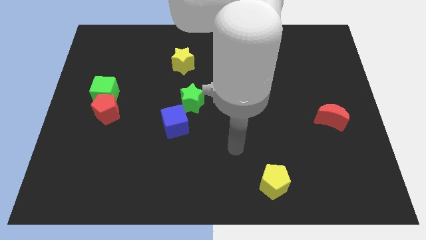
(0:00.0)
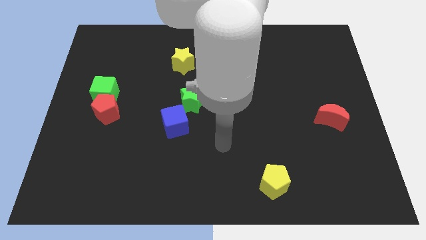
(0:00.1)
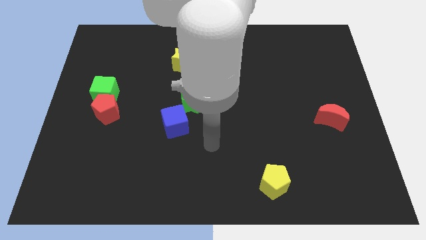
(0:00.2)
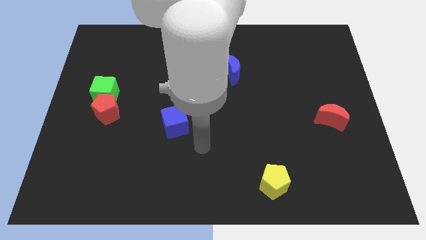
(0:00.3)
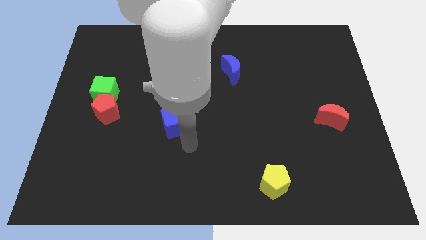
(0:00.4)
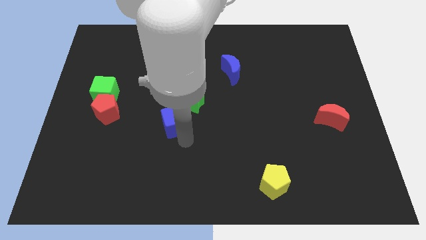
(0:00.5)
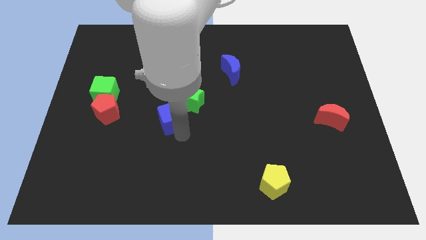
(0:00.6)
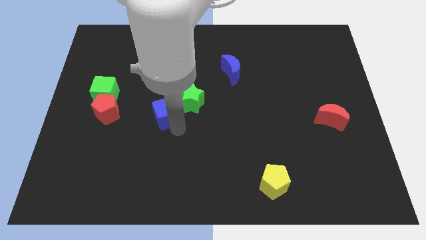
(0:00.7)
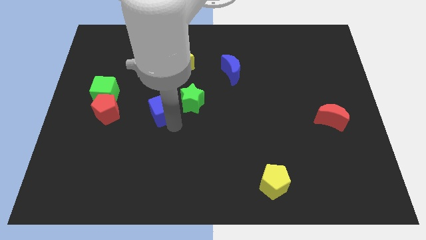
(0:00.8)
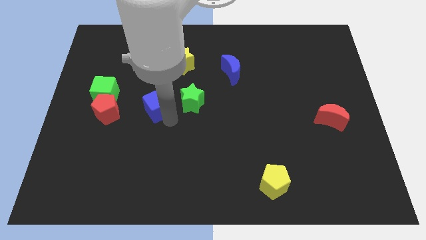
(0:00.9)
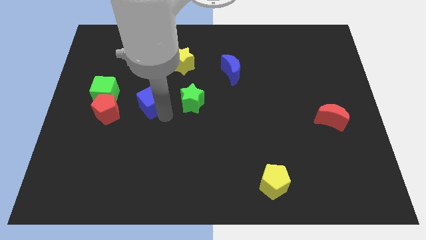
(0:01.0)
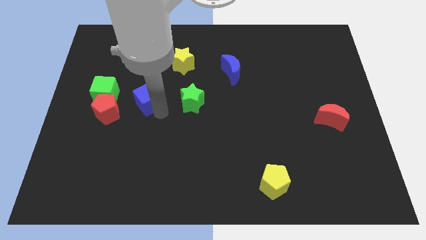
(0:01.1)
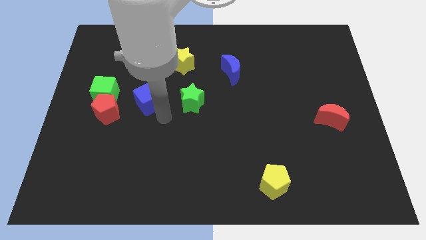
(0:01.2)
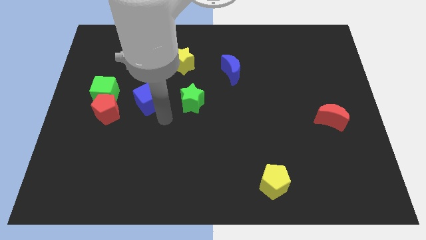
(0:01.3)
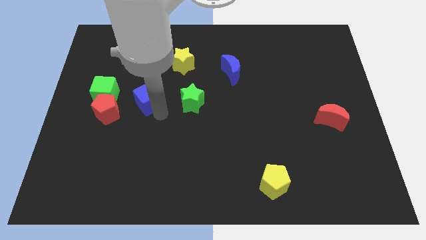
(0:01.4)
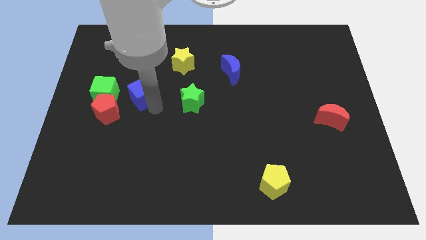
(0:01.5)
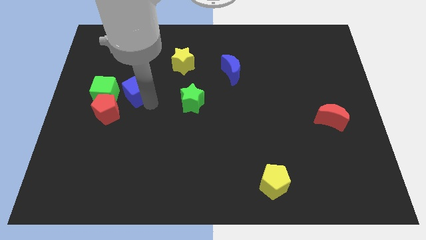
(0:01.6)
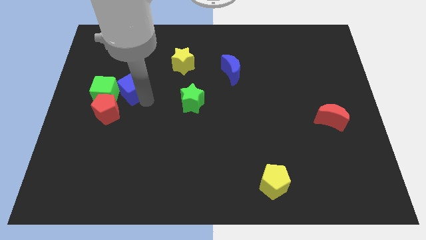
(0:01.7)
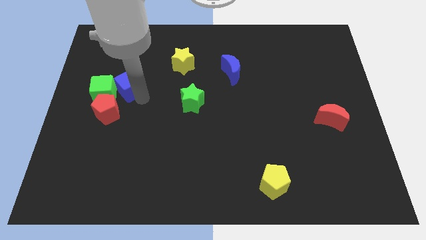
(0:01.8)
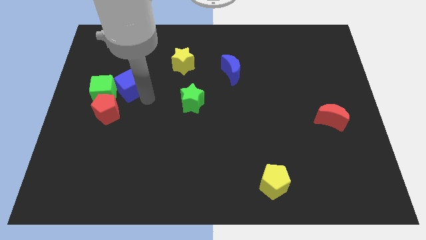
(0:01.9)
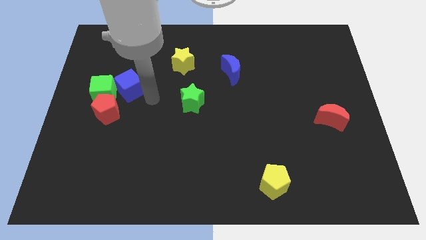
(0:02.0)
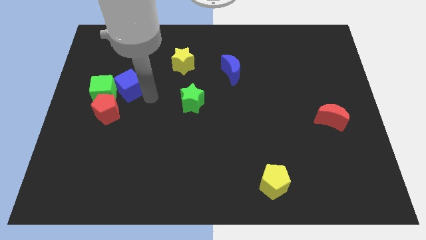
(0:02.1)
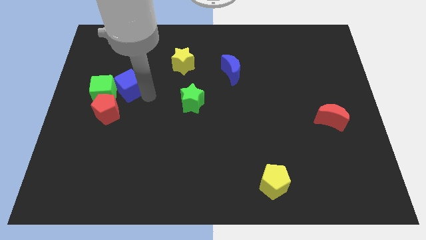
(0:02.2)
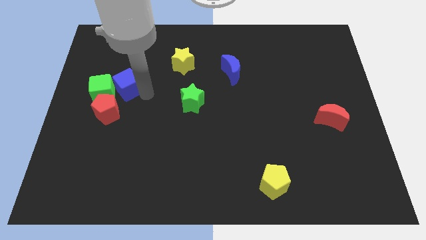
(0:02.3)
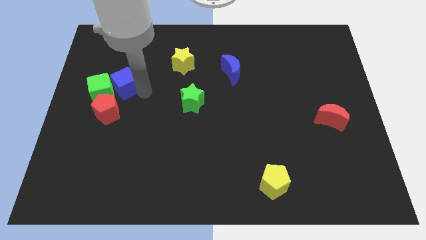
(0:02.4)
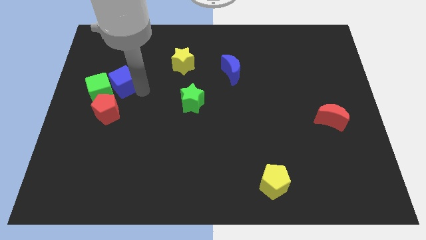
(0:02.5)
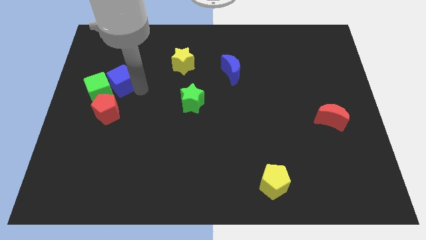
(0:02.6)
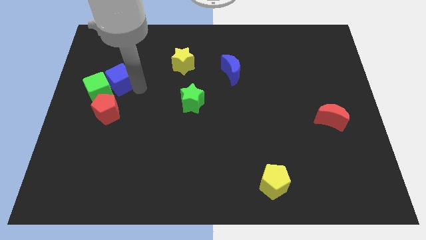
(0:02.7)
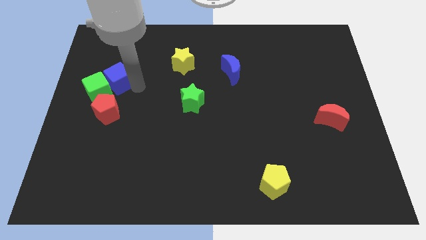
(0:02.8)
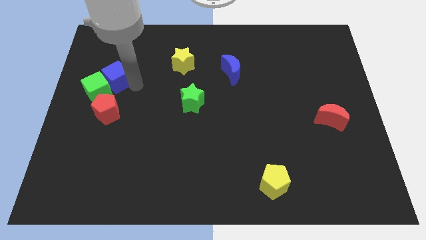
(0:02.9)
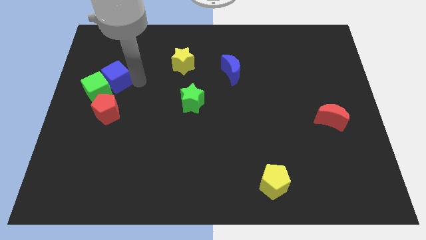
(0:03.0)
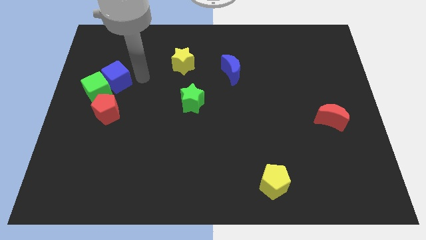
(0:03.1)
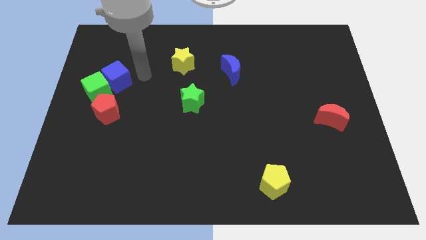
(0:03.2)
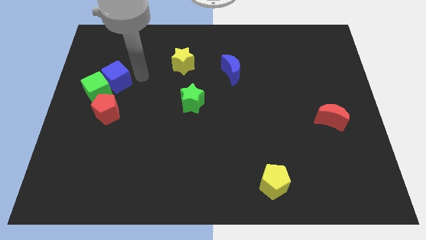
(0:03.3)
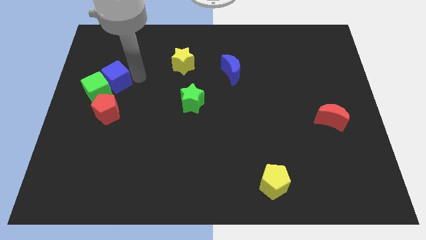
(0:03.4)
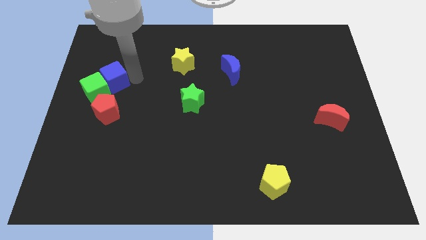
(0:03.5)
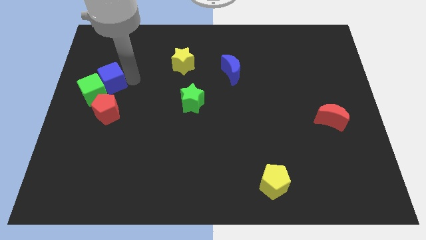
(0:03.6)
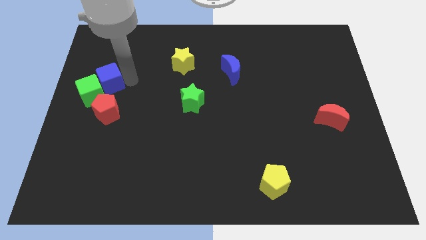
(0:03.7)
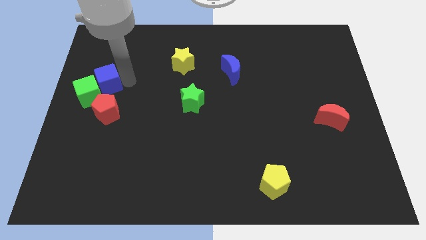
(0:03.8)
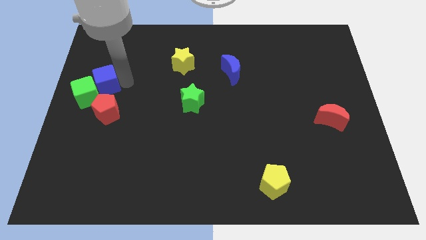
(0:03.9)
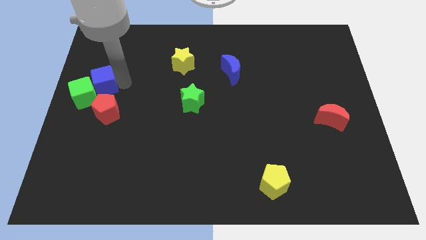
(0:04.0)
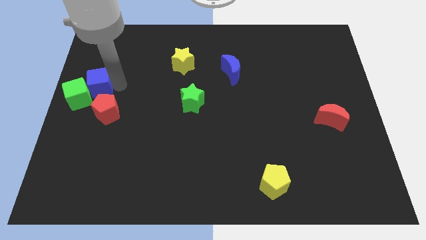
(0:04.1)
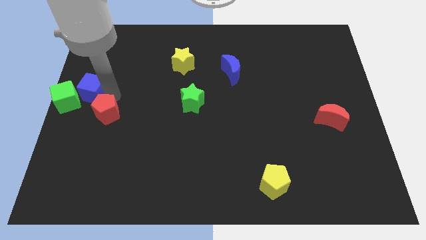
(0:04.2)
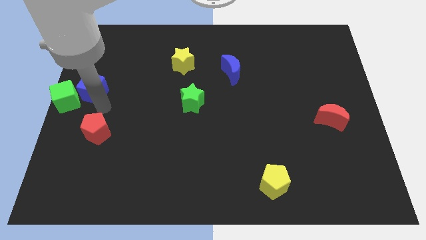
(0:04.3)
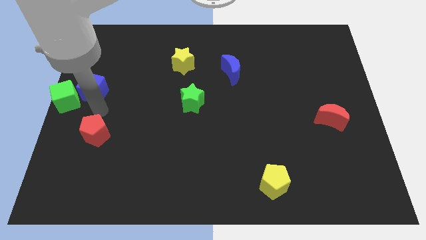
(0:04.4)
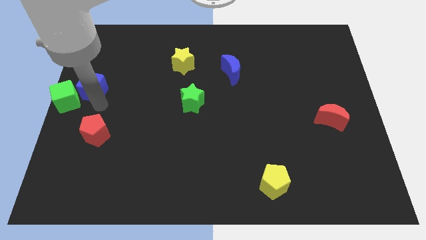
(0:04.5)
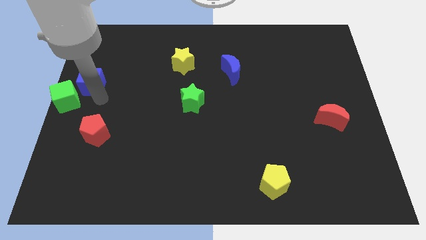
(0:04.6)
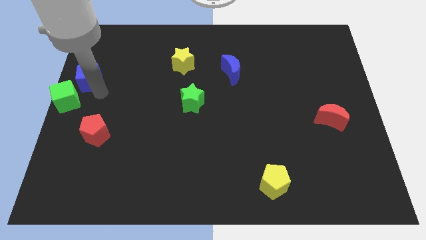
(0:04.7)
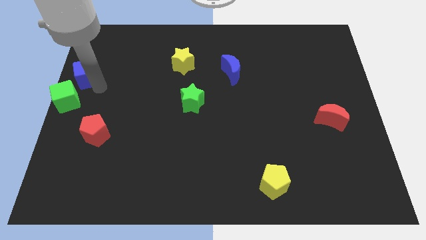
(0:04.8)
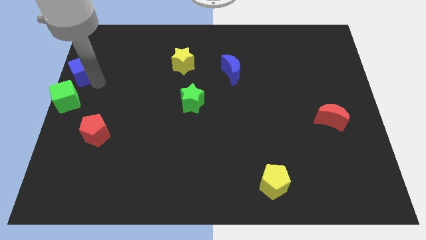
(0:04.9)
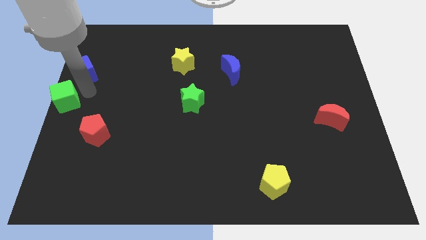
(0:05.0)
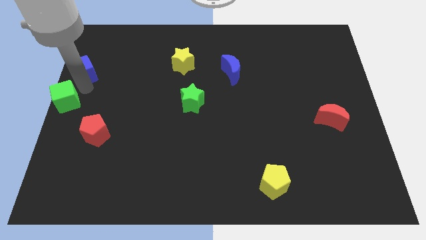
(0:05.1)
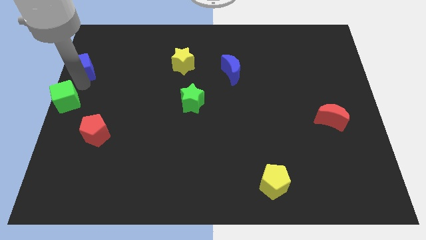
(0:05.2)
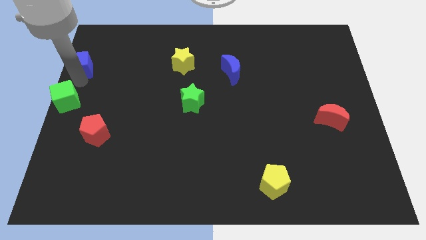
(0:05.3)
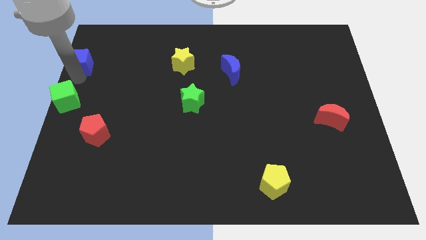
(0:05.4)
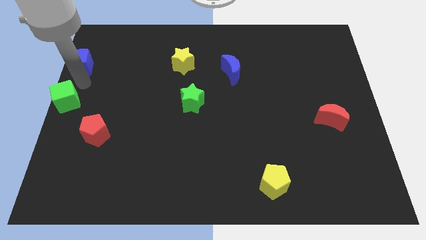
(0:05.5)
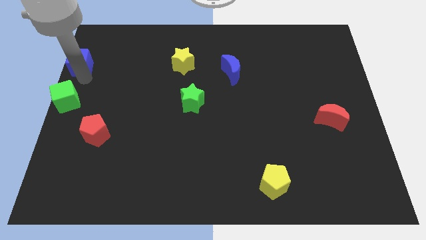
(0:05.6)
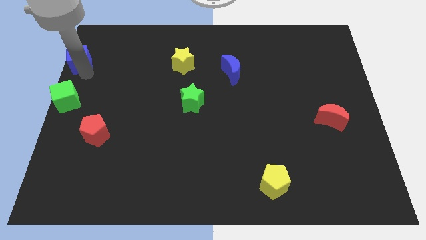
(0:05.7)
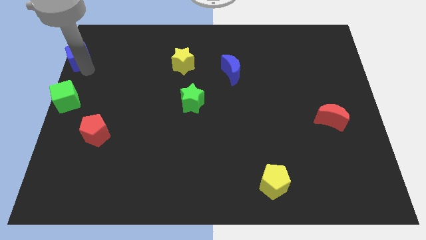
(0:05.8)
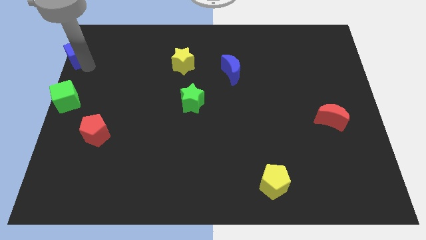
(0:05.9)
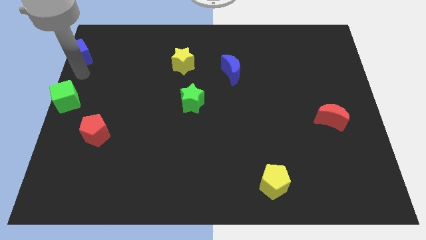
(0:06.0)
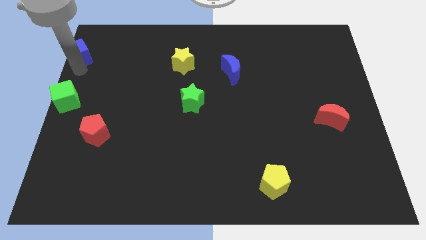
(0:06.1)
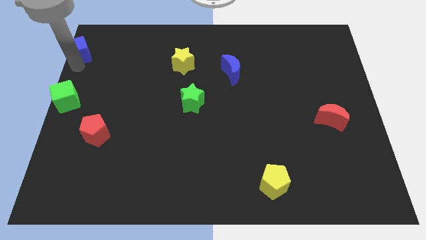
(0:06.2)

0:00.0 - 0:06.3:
push the blue cube to the top left of the board

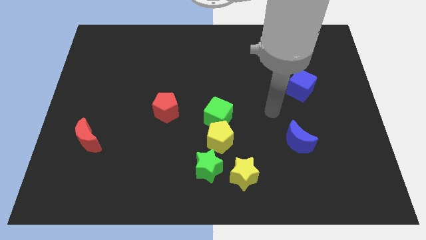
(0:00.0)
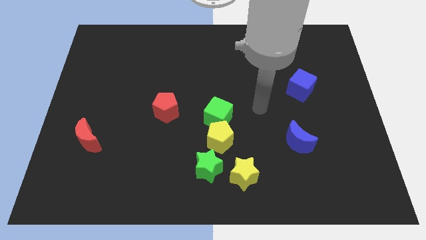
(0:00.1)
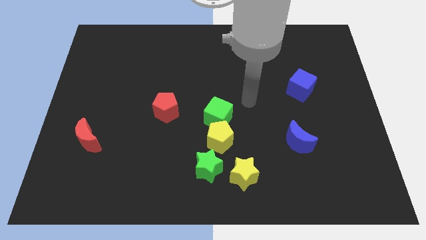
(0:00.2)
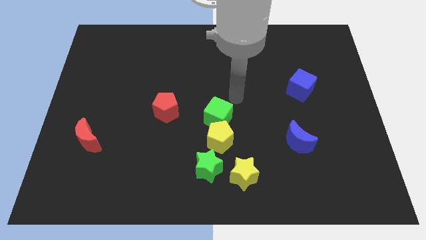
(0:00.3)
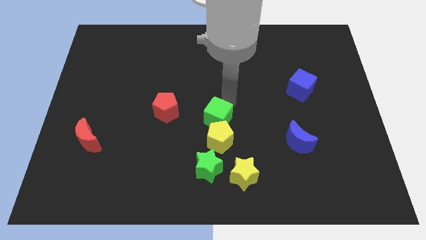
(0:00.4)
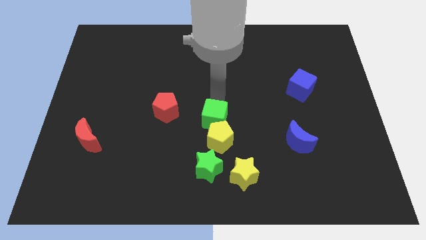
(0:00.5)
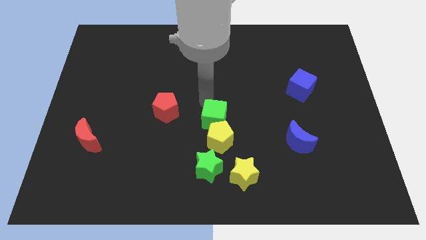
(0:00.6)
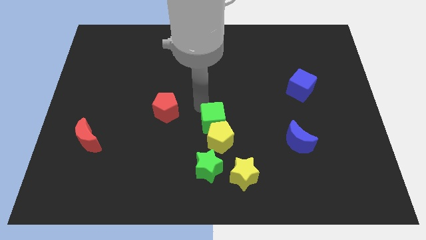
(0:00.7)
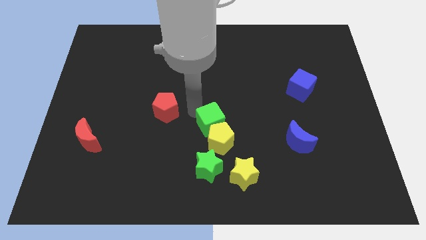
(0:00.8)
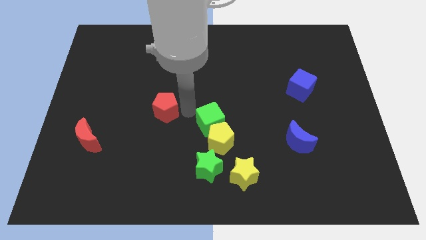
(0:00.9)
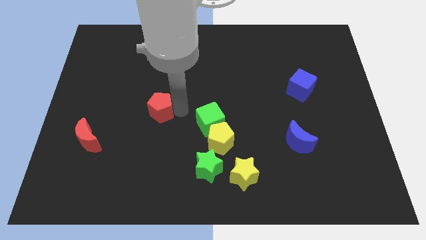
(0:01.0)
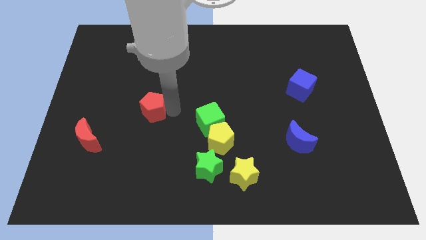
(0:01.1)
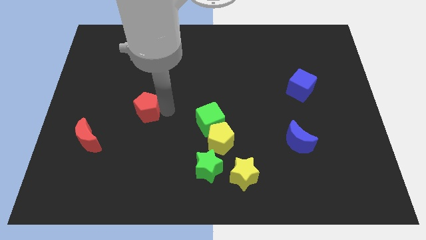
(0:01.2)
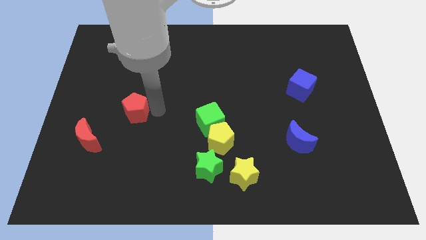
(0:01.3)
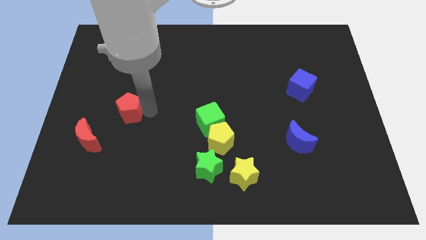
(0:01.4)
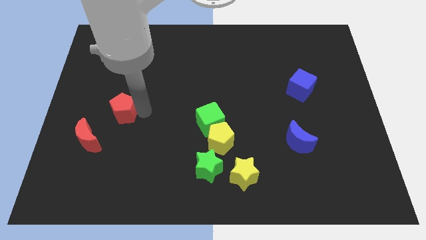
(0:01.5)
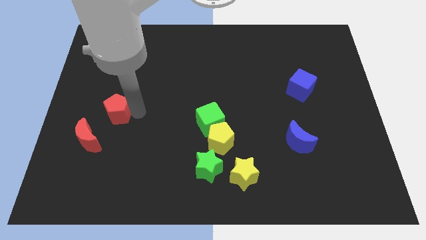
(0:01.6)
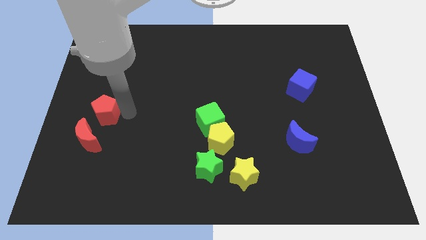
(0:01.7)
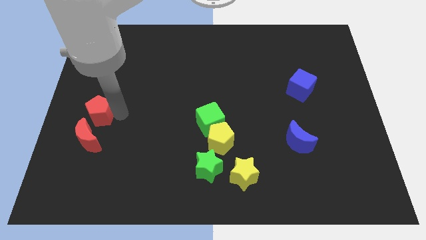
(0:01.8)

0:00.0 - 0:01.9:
slide the red pentagon to the left side of the board
